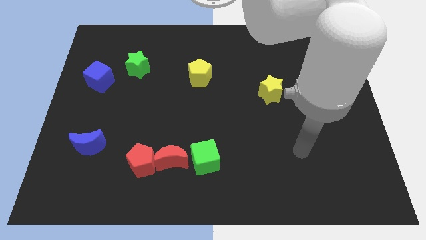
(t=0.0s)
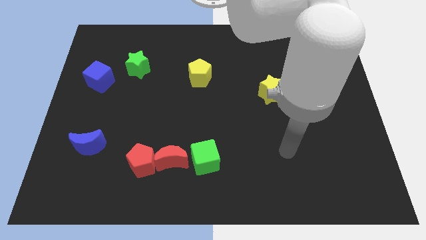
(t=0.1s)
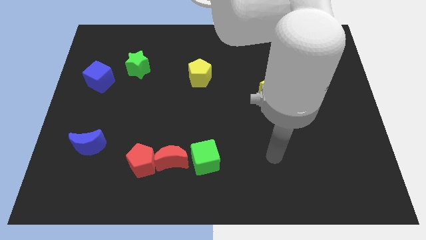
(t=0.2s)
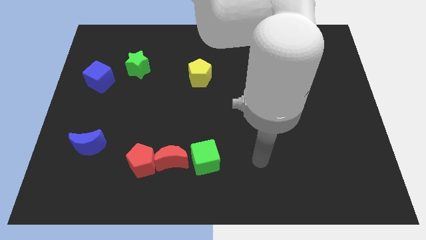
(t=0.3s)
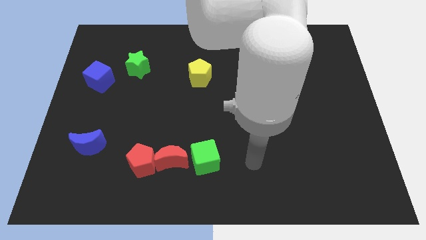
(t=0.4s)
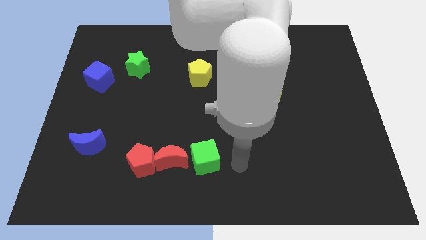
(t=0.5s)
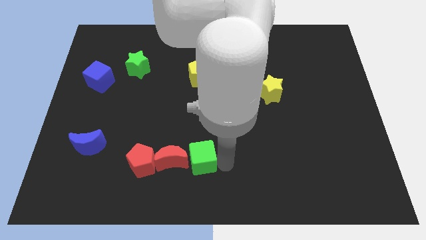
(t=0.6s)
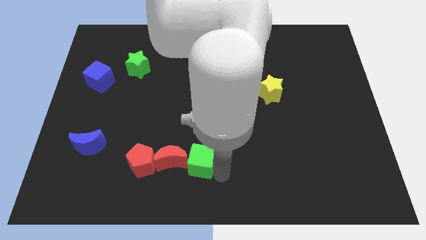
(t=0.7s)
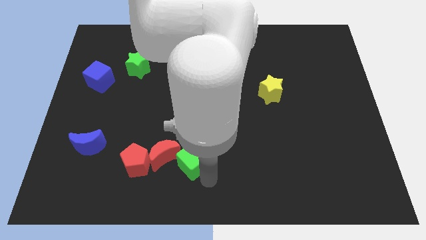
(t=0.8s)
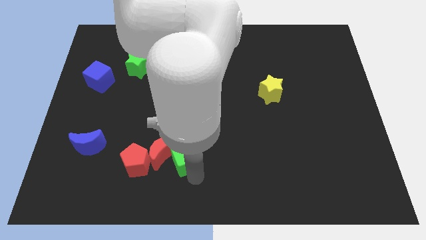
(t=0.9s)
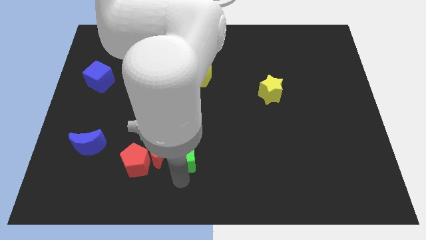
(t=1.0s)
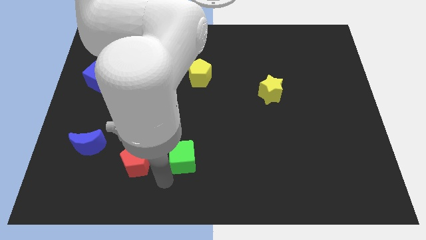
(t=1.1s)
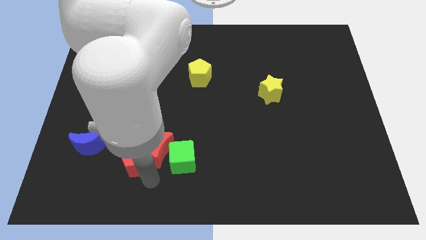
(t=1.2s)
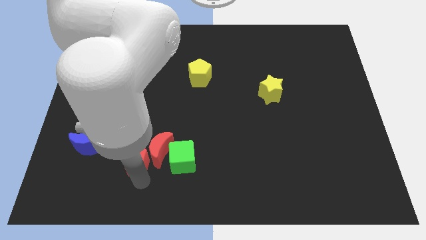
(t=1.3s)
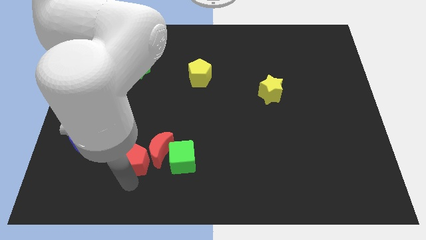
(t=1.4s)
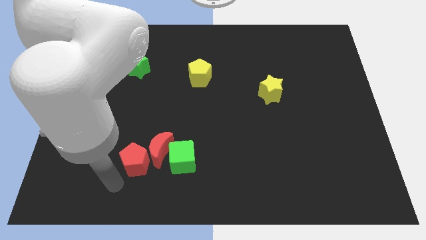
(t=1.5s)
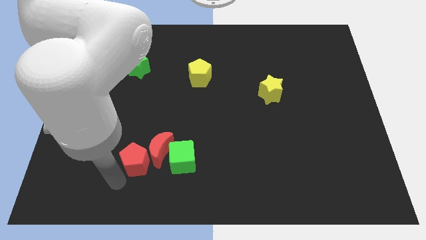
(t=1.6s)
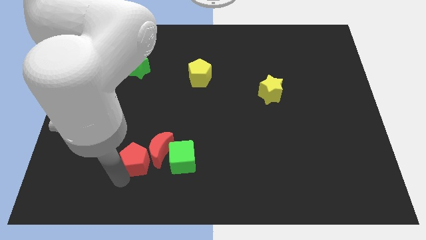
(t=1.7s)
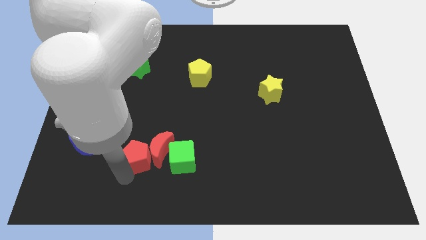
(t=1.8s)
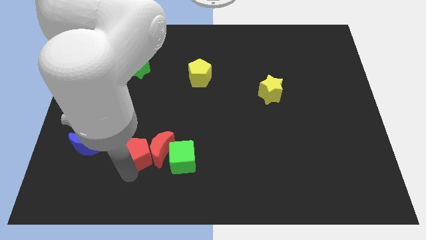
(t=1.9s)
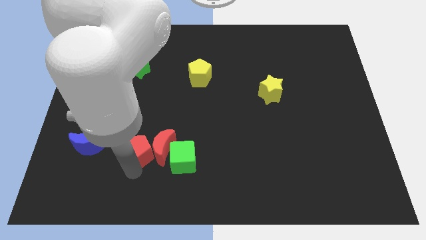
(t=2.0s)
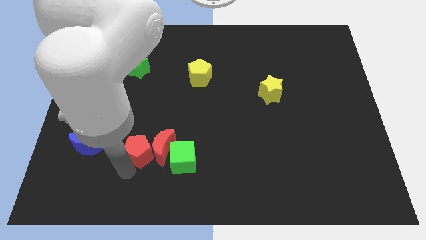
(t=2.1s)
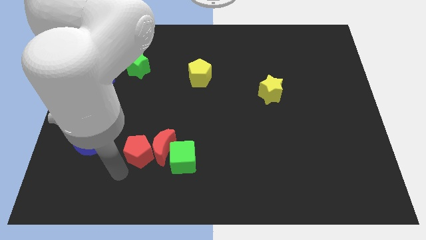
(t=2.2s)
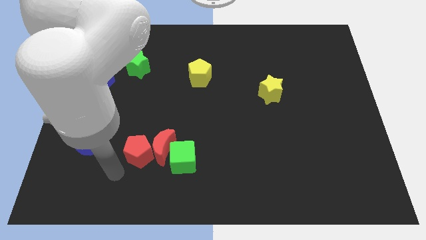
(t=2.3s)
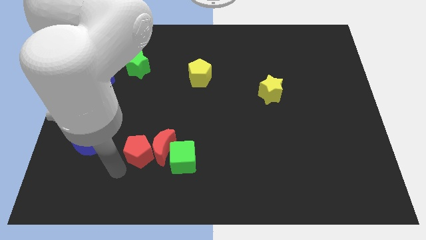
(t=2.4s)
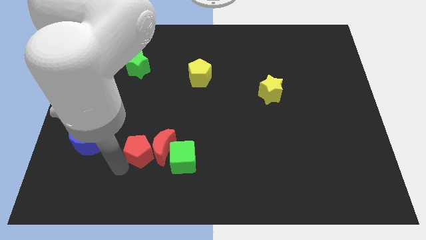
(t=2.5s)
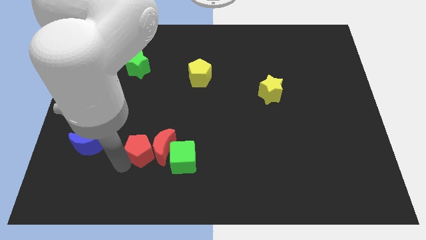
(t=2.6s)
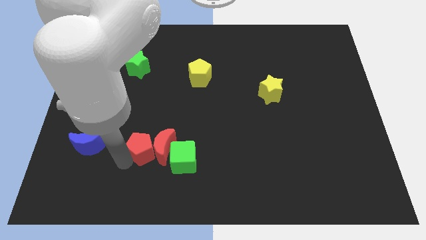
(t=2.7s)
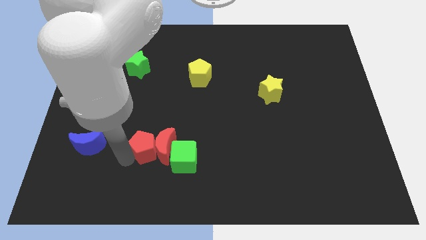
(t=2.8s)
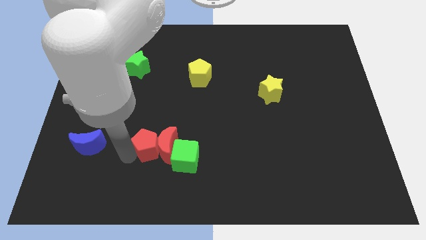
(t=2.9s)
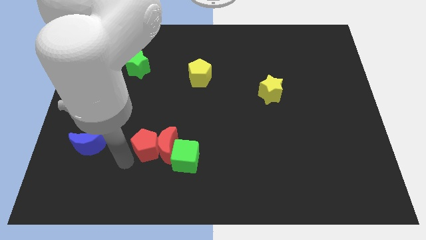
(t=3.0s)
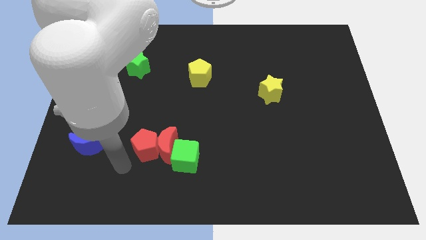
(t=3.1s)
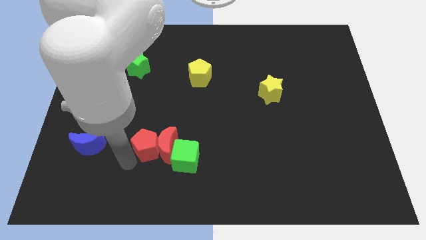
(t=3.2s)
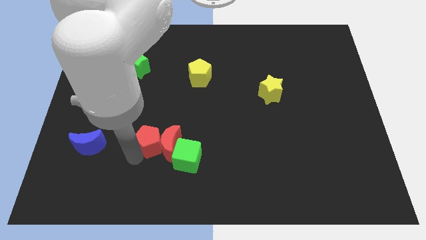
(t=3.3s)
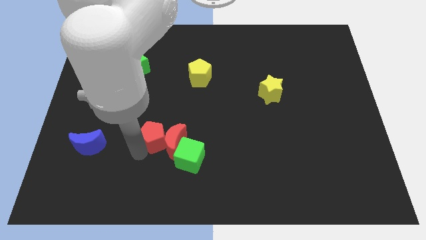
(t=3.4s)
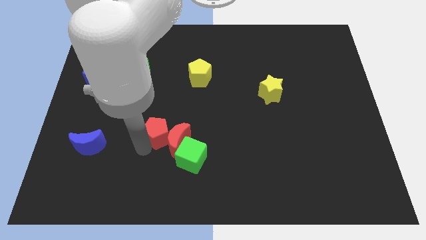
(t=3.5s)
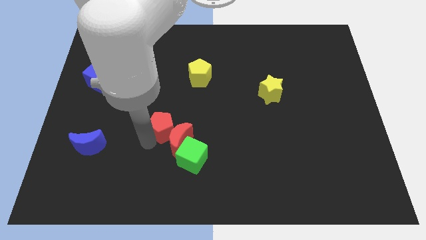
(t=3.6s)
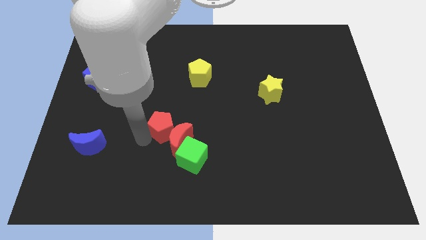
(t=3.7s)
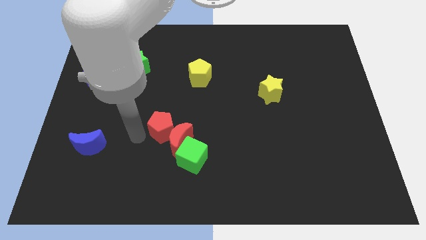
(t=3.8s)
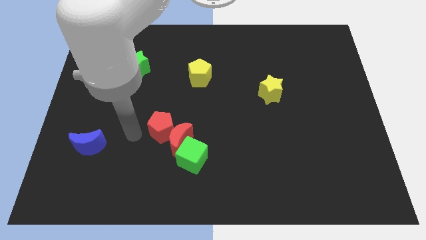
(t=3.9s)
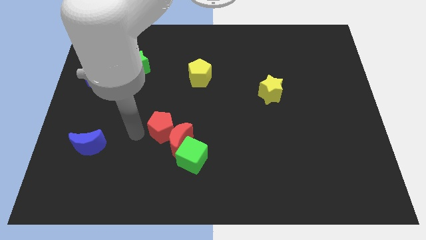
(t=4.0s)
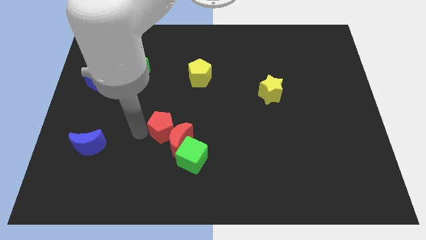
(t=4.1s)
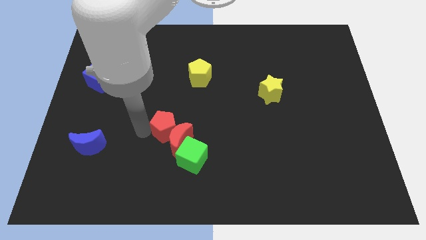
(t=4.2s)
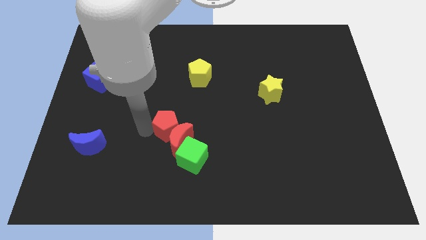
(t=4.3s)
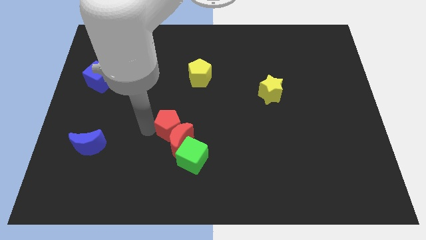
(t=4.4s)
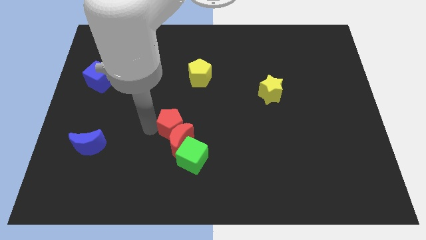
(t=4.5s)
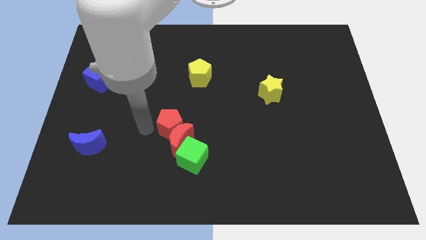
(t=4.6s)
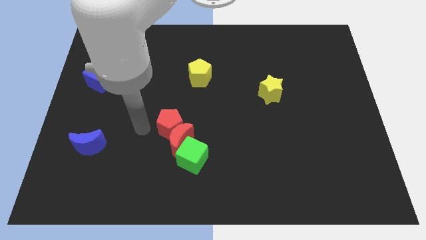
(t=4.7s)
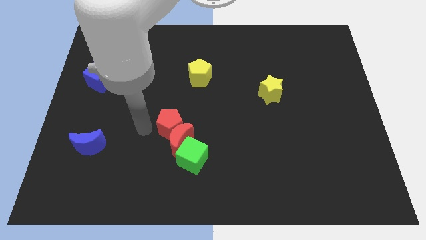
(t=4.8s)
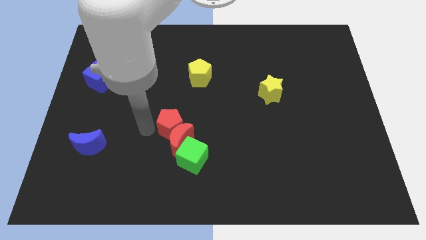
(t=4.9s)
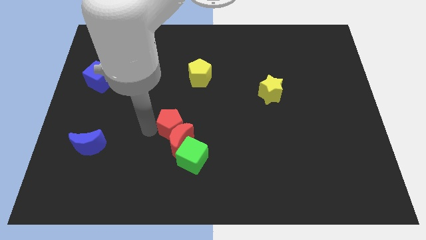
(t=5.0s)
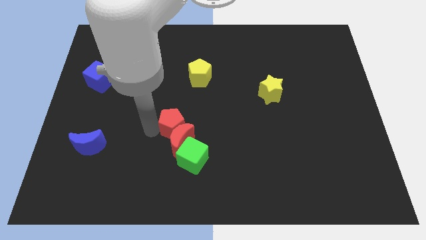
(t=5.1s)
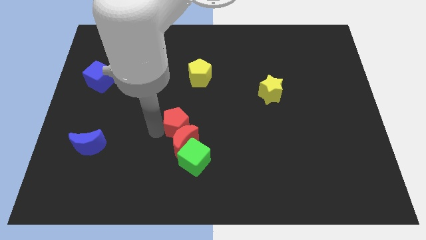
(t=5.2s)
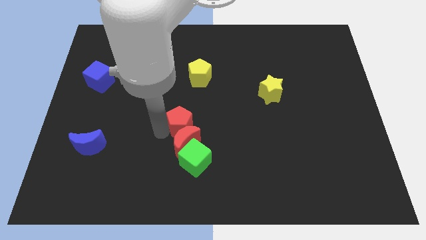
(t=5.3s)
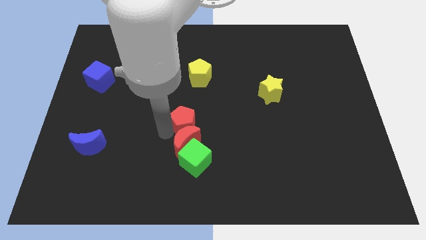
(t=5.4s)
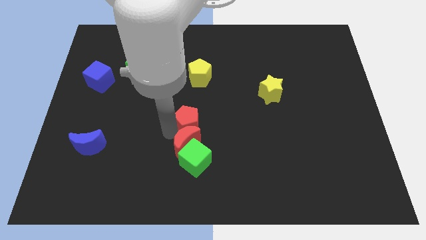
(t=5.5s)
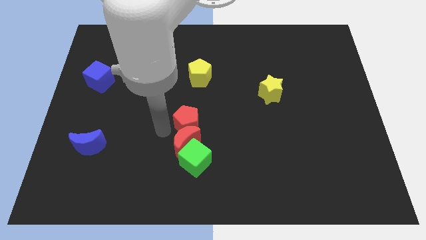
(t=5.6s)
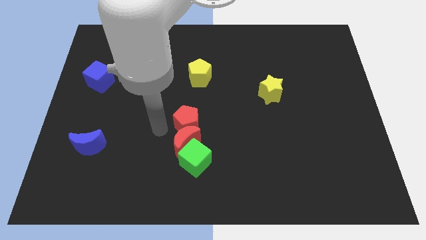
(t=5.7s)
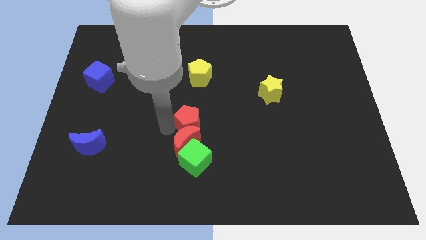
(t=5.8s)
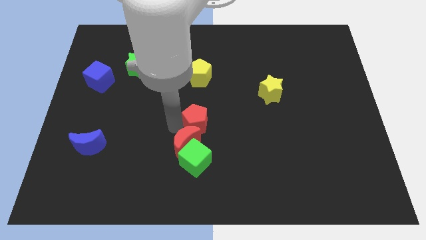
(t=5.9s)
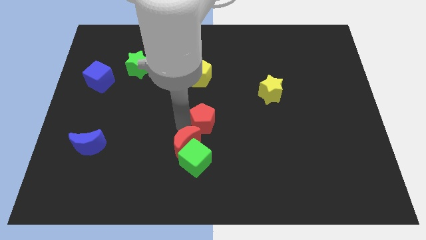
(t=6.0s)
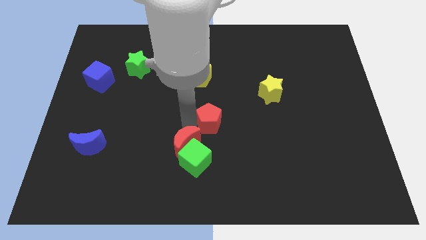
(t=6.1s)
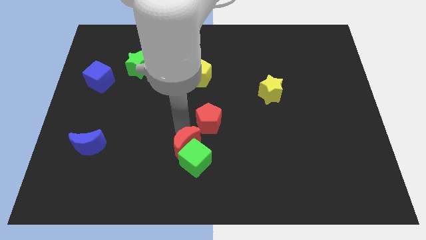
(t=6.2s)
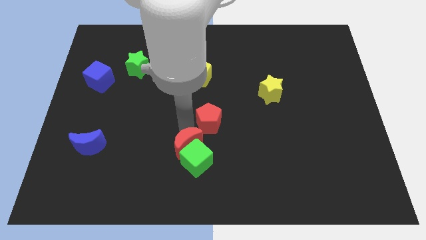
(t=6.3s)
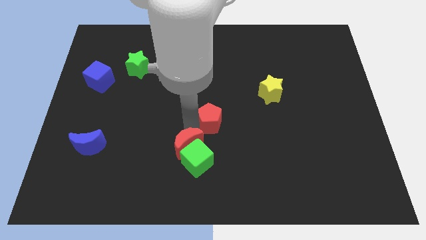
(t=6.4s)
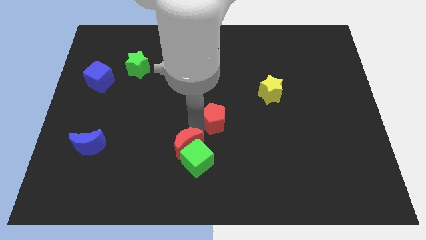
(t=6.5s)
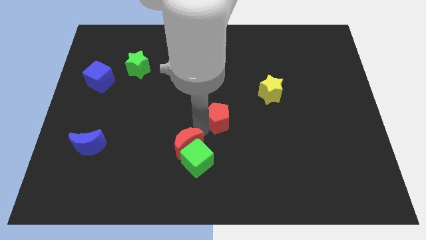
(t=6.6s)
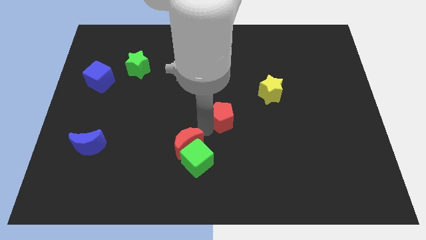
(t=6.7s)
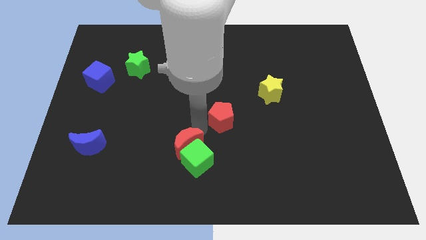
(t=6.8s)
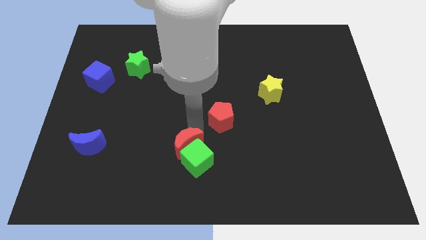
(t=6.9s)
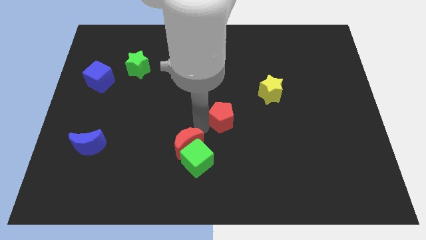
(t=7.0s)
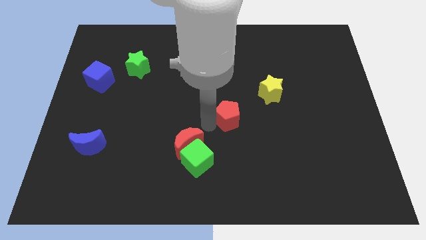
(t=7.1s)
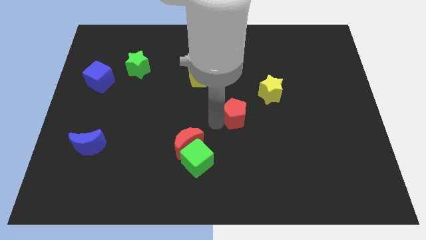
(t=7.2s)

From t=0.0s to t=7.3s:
push the red pentagon to the bottom left of the yellow star
